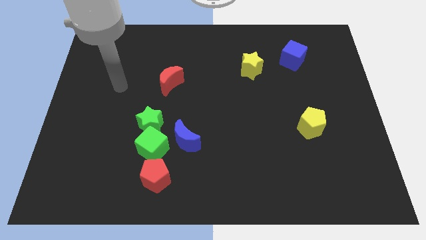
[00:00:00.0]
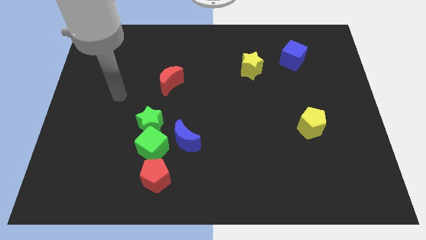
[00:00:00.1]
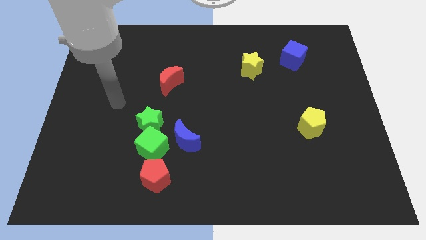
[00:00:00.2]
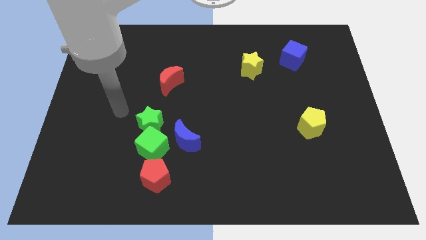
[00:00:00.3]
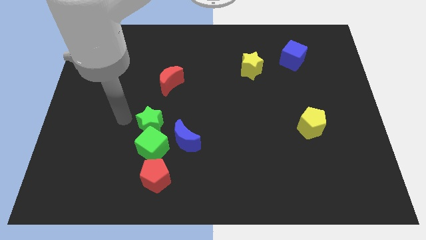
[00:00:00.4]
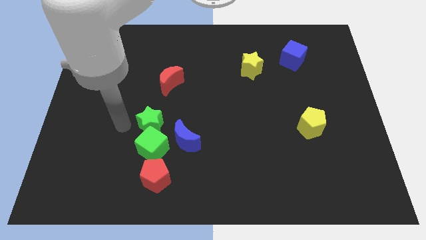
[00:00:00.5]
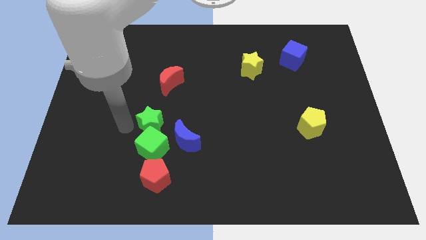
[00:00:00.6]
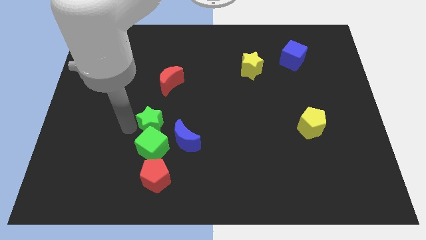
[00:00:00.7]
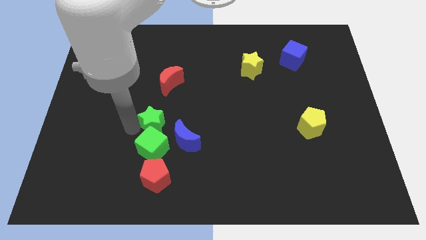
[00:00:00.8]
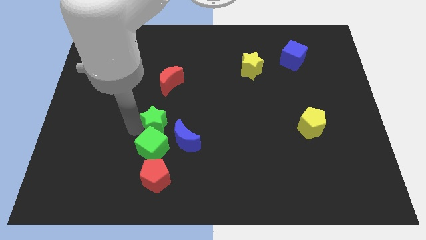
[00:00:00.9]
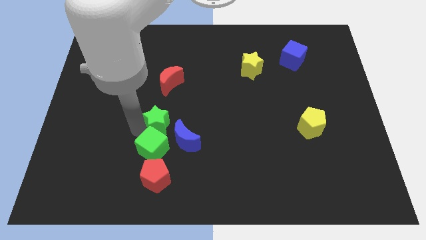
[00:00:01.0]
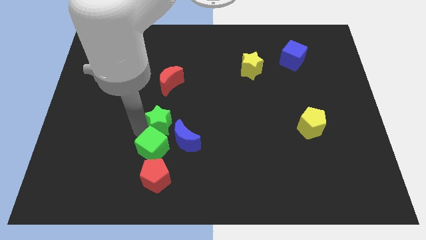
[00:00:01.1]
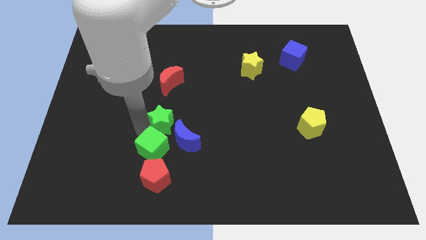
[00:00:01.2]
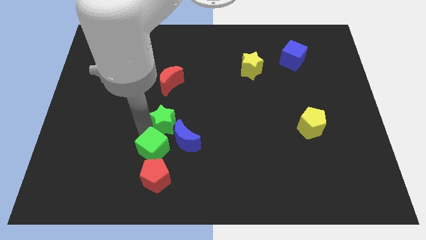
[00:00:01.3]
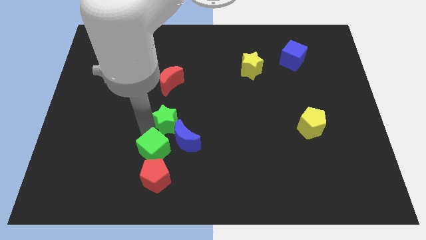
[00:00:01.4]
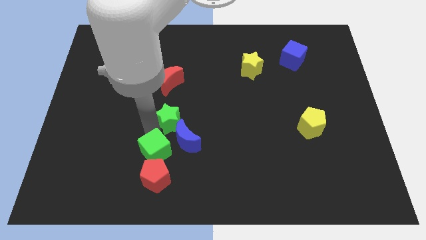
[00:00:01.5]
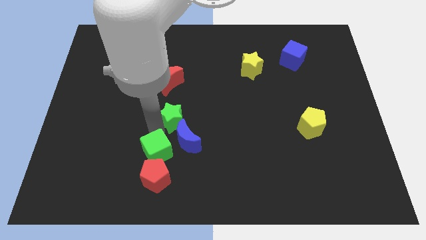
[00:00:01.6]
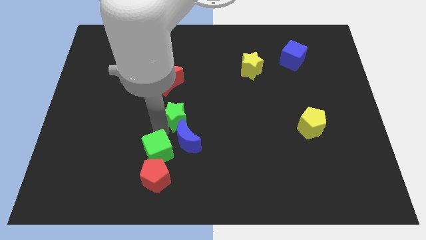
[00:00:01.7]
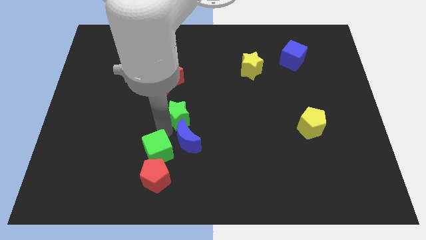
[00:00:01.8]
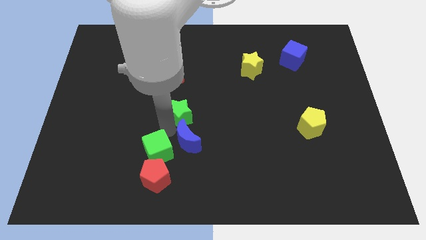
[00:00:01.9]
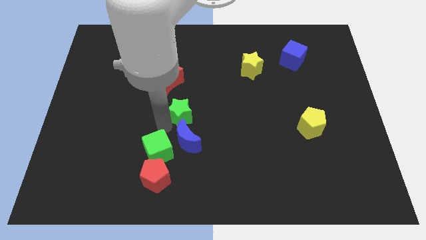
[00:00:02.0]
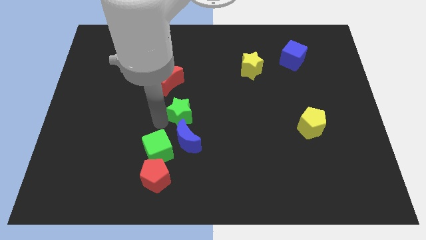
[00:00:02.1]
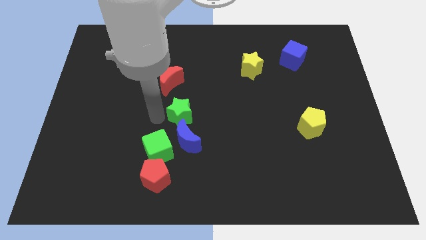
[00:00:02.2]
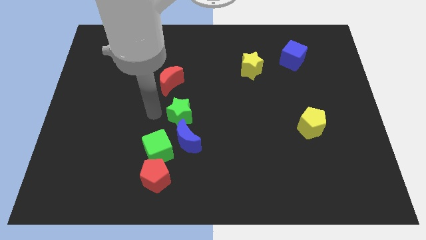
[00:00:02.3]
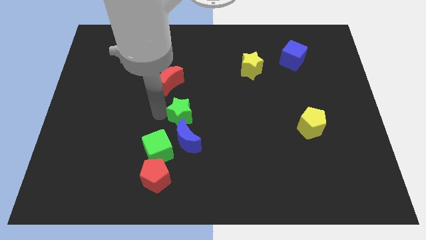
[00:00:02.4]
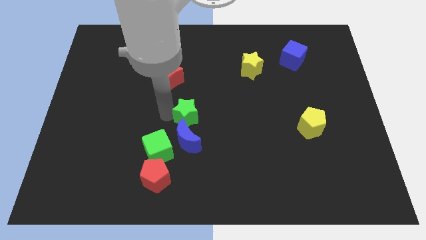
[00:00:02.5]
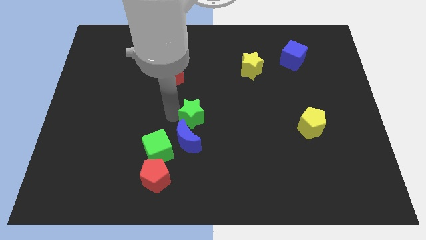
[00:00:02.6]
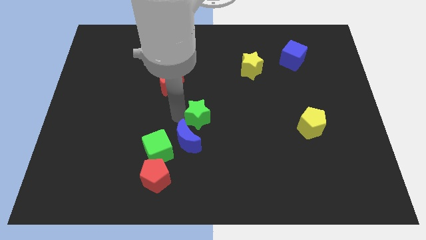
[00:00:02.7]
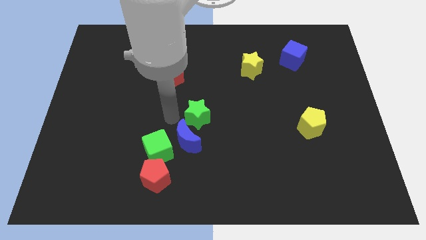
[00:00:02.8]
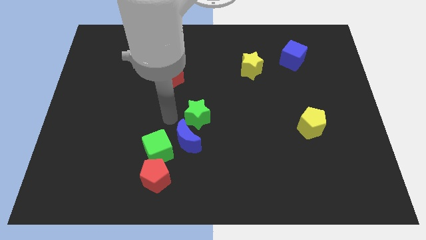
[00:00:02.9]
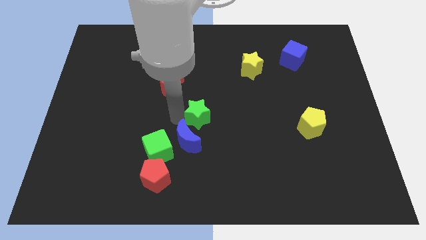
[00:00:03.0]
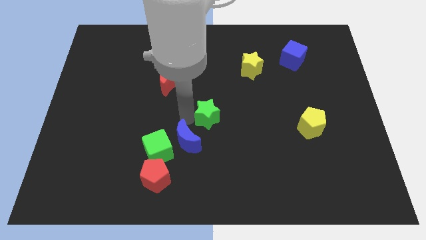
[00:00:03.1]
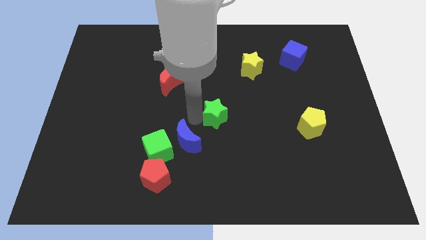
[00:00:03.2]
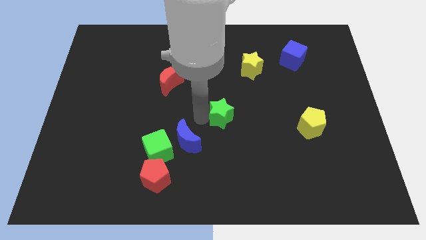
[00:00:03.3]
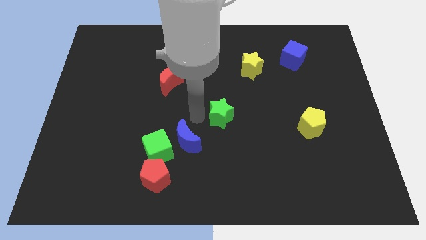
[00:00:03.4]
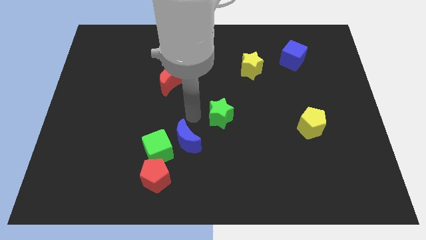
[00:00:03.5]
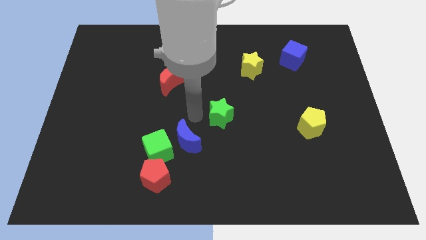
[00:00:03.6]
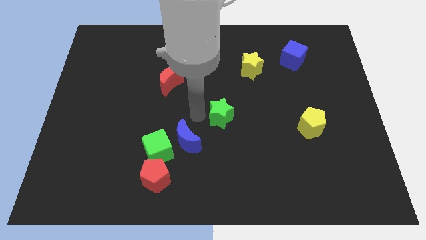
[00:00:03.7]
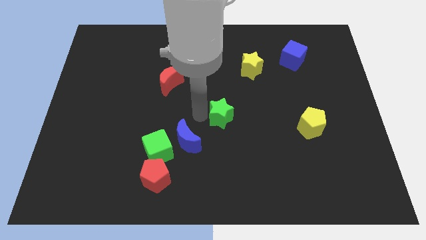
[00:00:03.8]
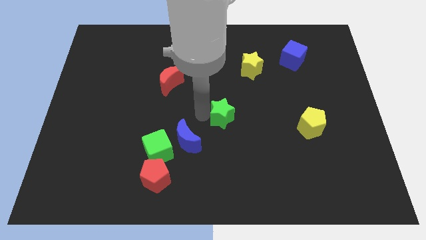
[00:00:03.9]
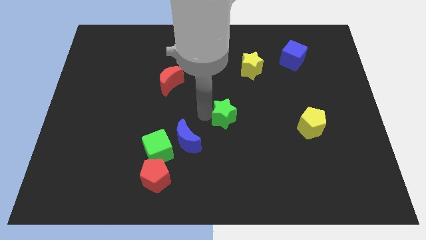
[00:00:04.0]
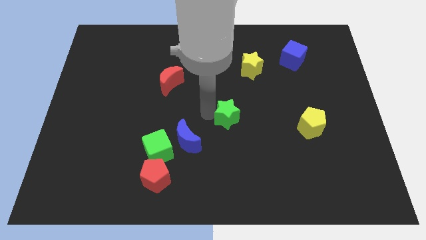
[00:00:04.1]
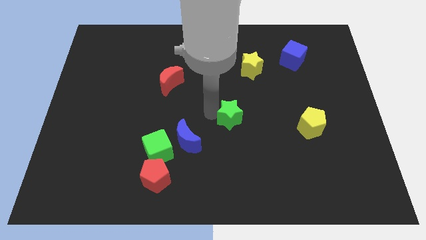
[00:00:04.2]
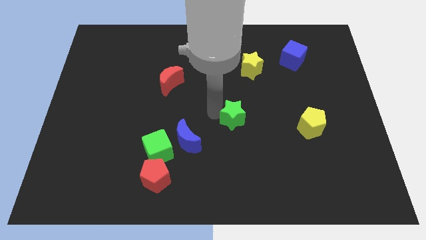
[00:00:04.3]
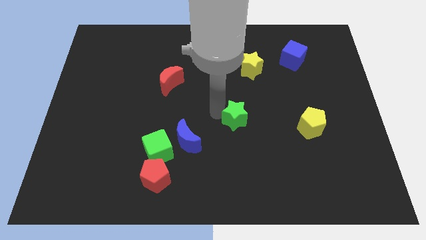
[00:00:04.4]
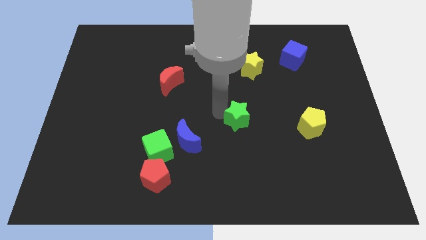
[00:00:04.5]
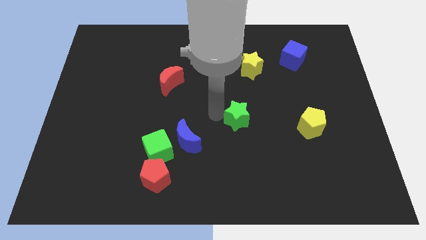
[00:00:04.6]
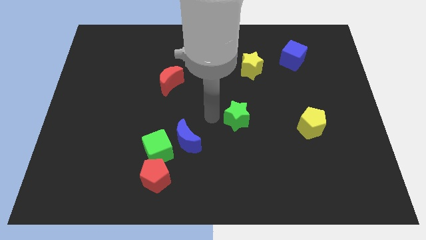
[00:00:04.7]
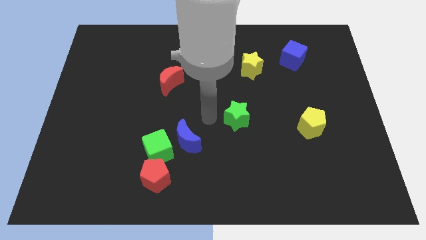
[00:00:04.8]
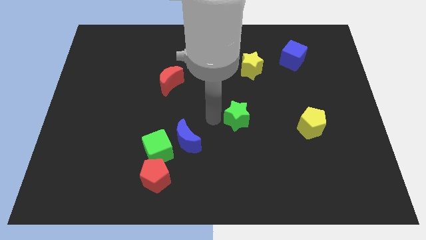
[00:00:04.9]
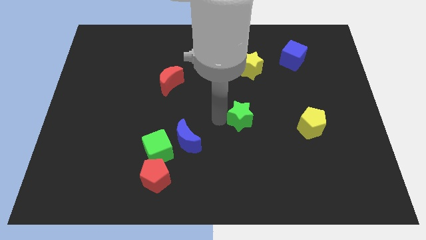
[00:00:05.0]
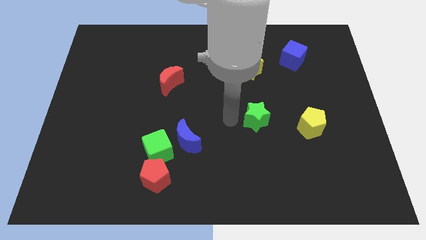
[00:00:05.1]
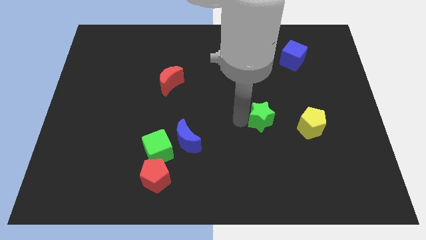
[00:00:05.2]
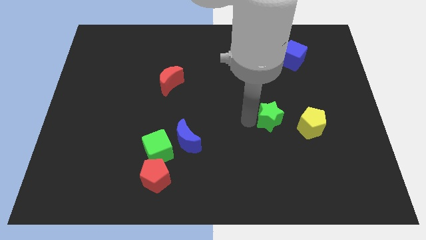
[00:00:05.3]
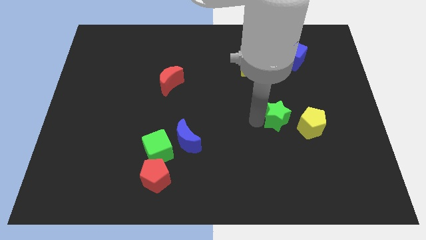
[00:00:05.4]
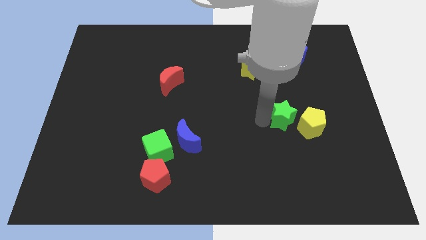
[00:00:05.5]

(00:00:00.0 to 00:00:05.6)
push the green star close to the yellow pentagon

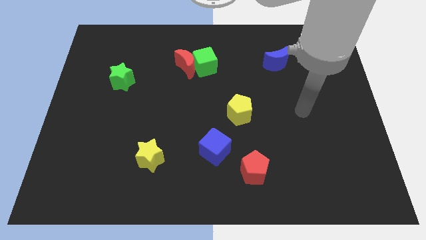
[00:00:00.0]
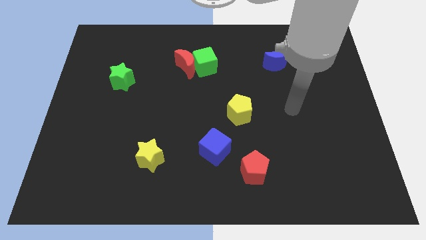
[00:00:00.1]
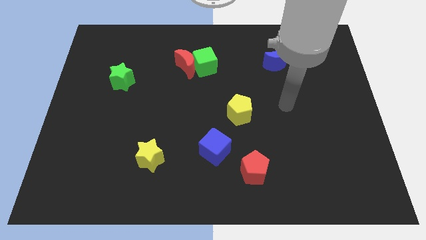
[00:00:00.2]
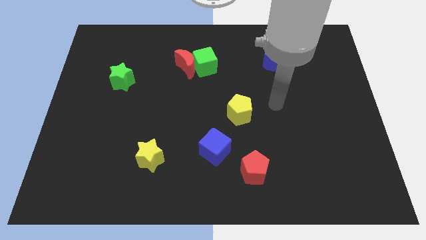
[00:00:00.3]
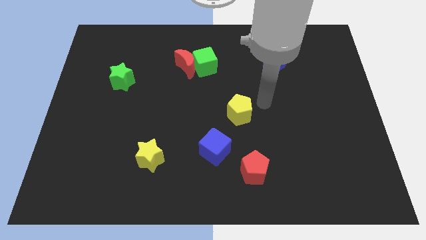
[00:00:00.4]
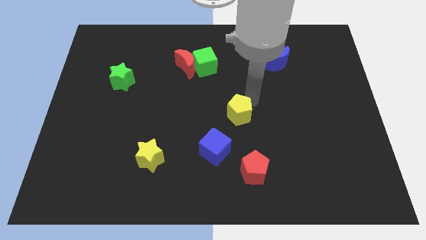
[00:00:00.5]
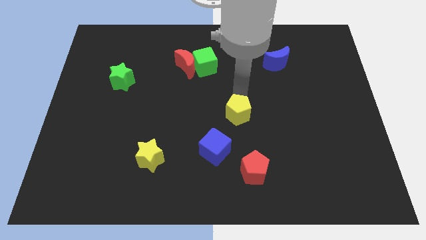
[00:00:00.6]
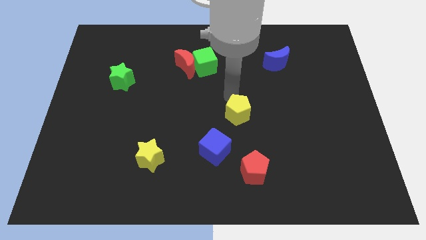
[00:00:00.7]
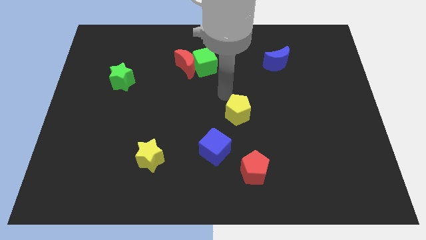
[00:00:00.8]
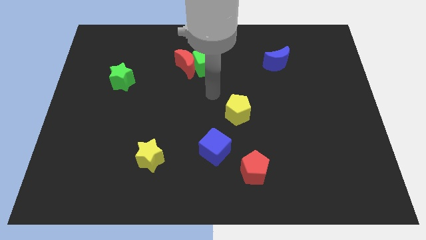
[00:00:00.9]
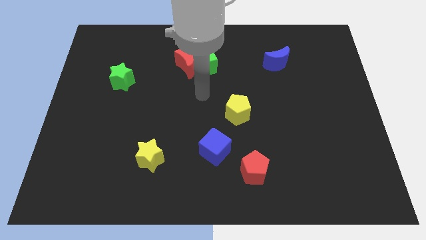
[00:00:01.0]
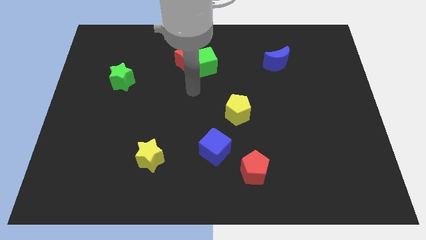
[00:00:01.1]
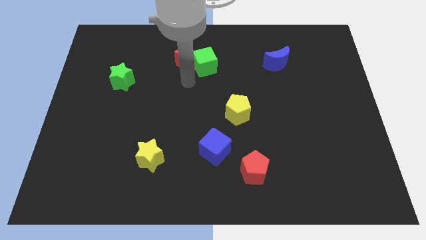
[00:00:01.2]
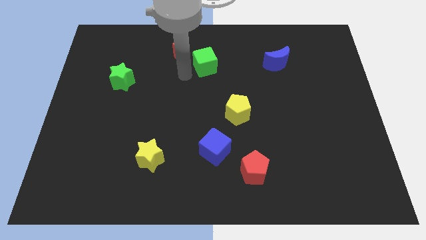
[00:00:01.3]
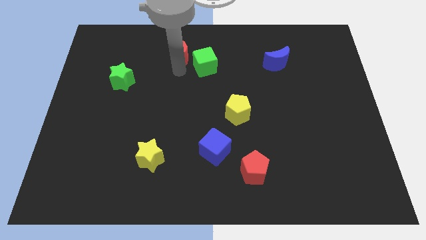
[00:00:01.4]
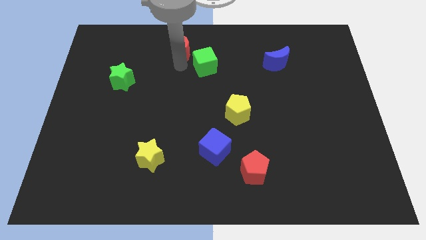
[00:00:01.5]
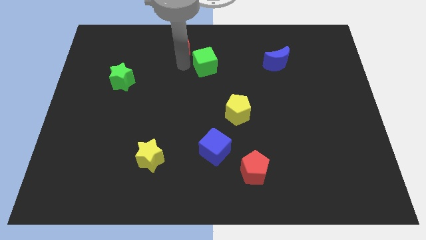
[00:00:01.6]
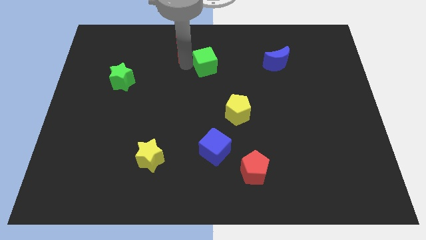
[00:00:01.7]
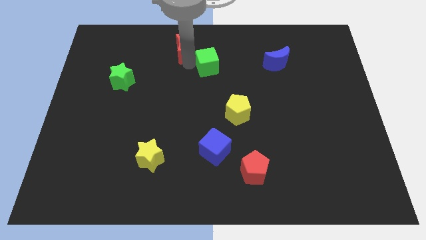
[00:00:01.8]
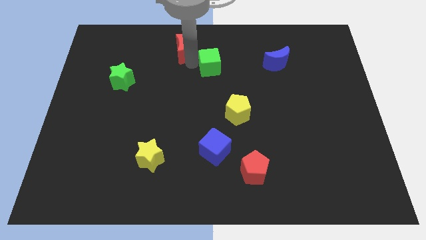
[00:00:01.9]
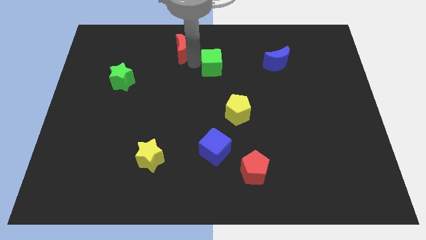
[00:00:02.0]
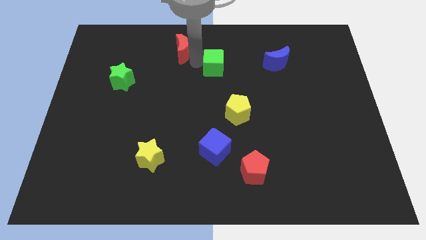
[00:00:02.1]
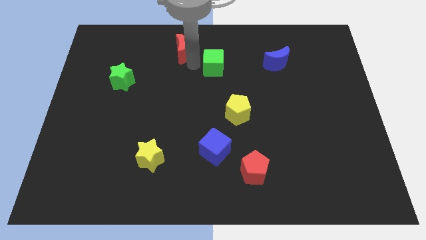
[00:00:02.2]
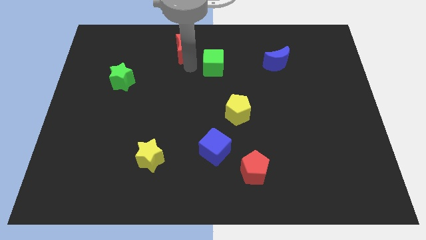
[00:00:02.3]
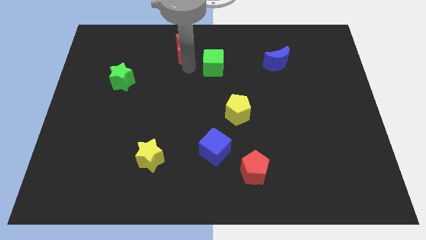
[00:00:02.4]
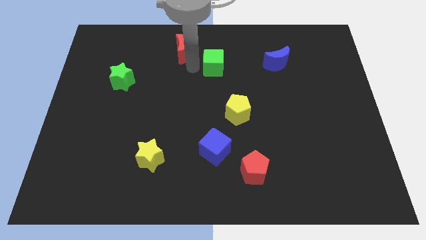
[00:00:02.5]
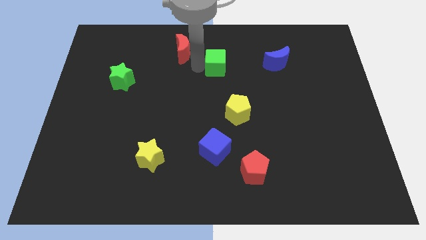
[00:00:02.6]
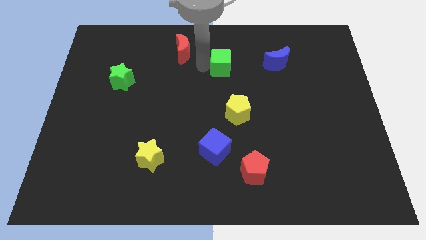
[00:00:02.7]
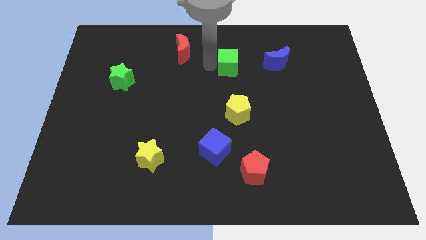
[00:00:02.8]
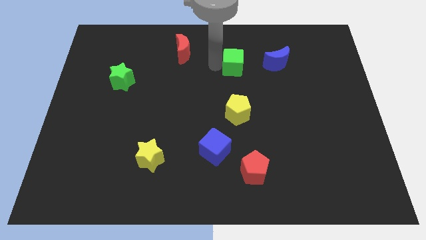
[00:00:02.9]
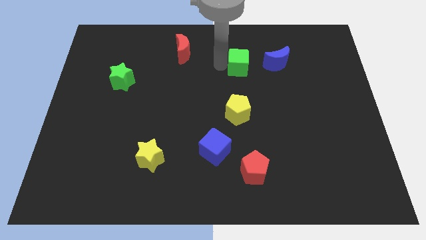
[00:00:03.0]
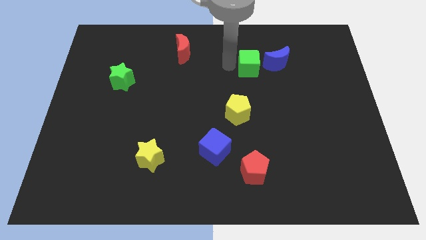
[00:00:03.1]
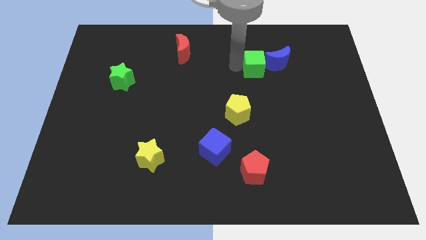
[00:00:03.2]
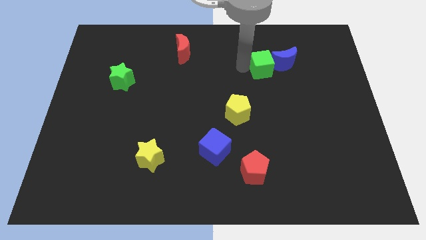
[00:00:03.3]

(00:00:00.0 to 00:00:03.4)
move the green cube next to the blue moon
